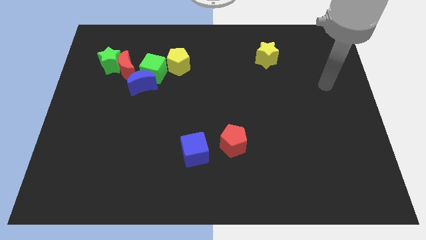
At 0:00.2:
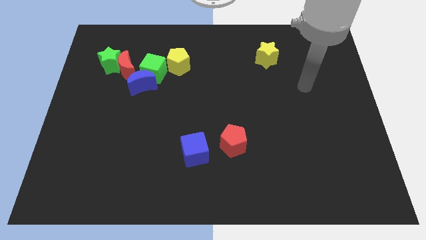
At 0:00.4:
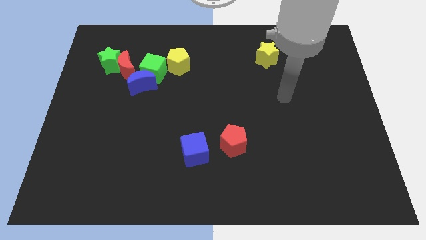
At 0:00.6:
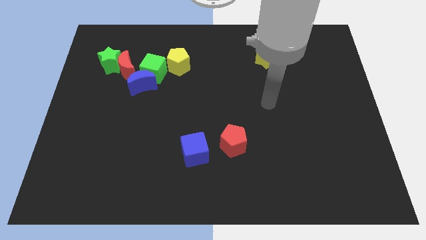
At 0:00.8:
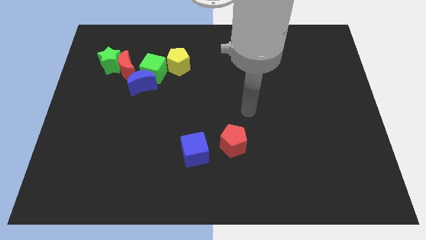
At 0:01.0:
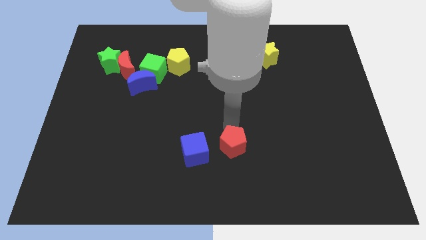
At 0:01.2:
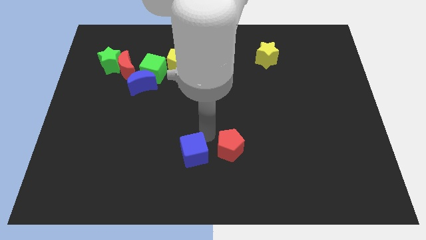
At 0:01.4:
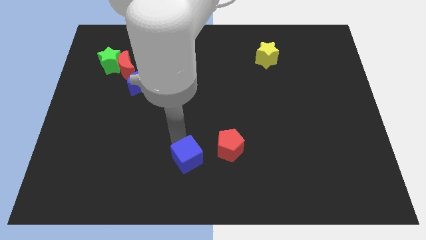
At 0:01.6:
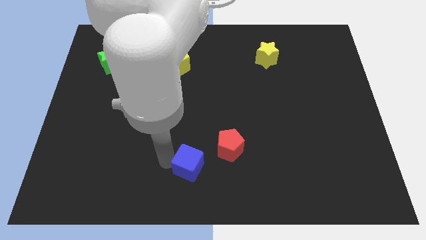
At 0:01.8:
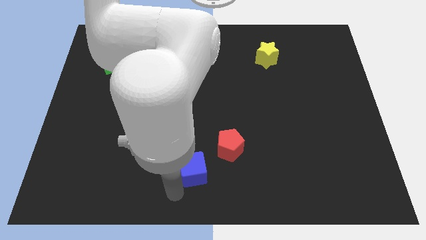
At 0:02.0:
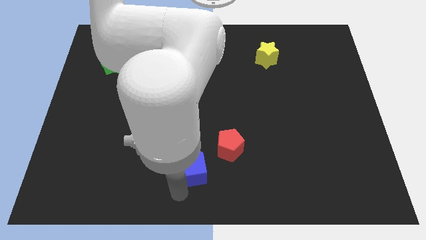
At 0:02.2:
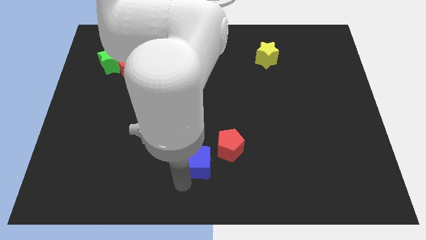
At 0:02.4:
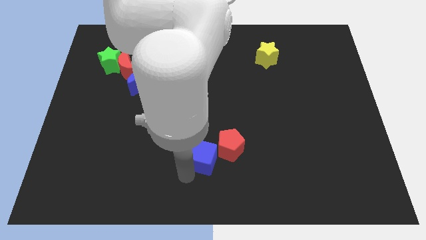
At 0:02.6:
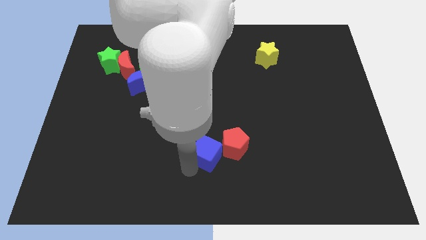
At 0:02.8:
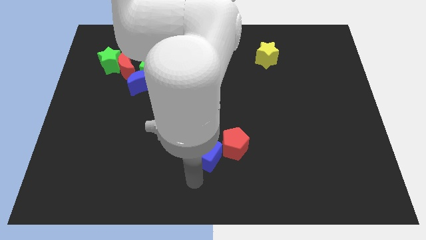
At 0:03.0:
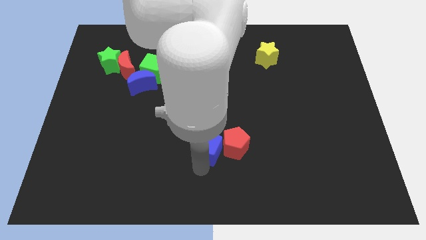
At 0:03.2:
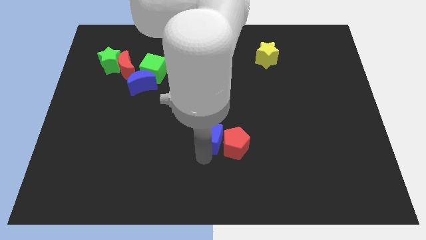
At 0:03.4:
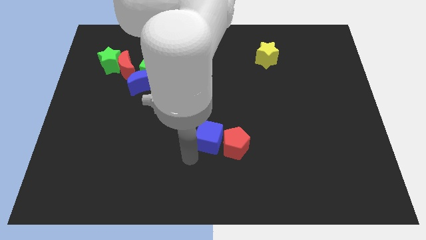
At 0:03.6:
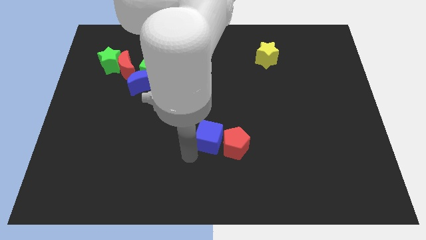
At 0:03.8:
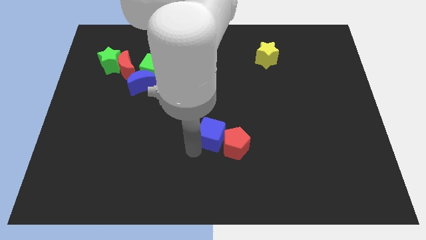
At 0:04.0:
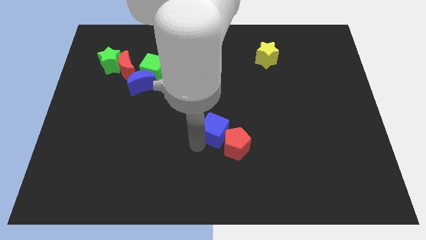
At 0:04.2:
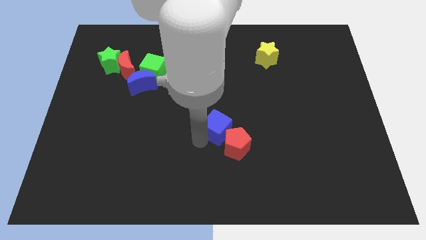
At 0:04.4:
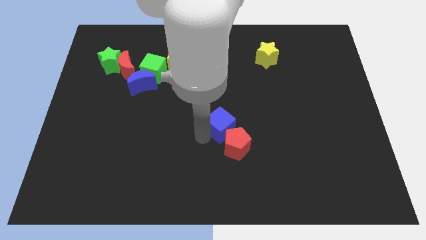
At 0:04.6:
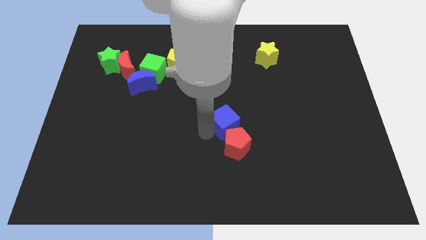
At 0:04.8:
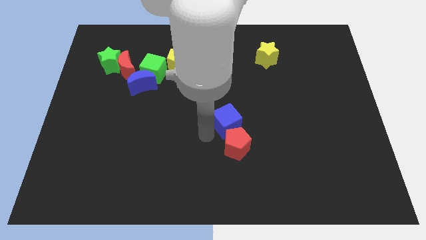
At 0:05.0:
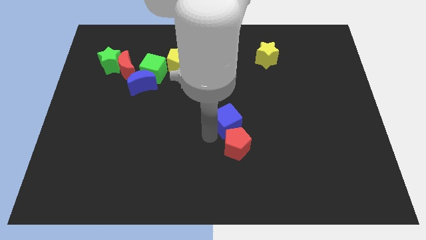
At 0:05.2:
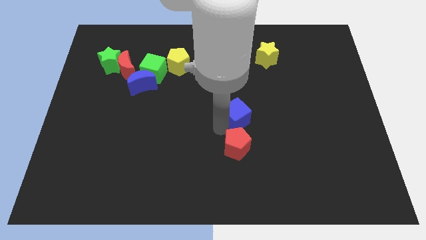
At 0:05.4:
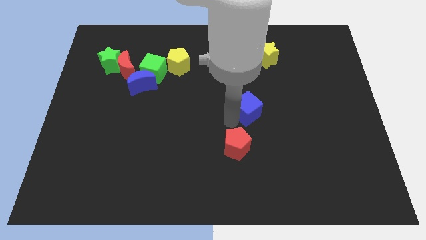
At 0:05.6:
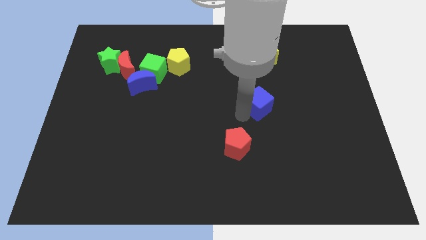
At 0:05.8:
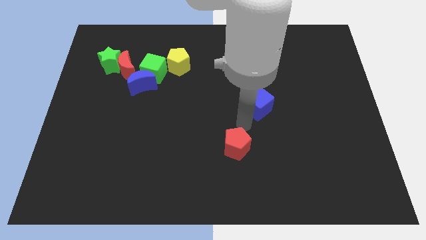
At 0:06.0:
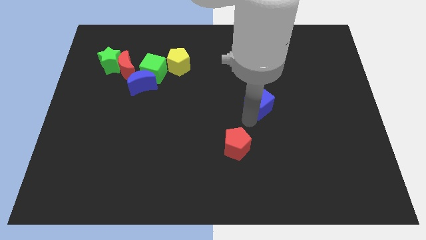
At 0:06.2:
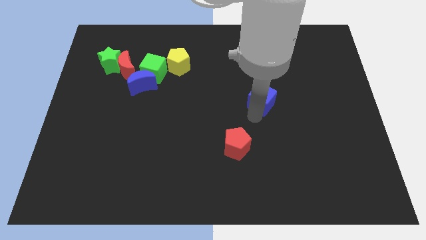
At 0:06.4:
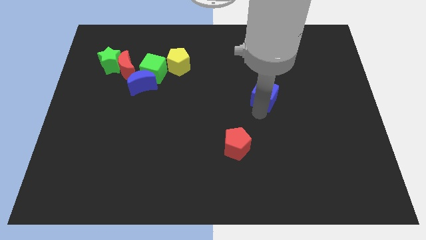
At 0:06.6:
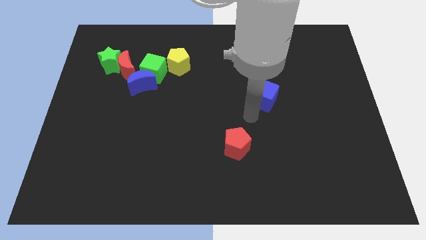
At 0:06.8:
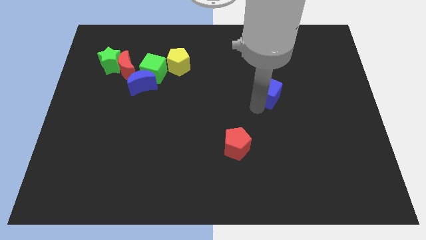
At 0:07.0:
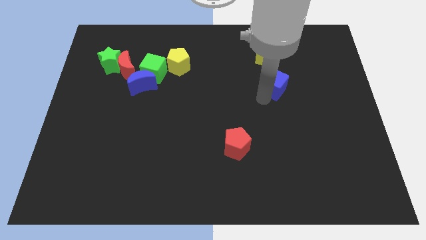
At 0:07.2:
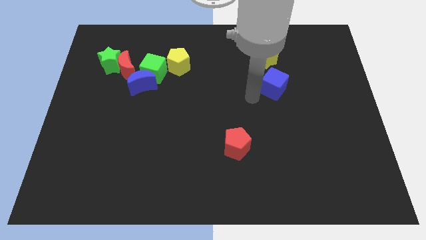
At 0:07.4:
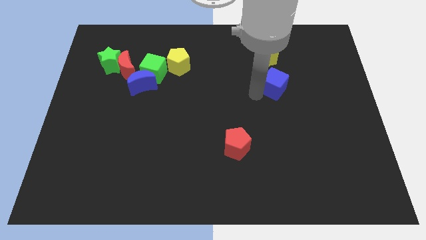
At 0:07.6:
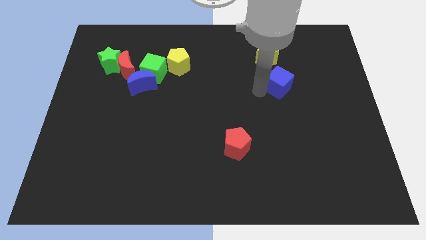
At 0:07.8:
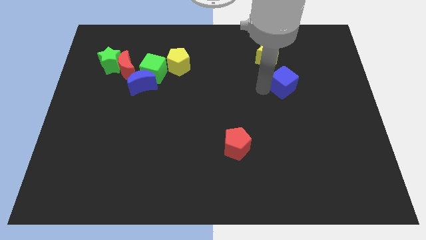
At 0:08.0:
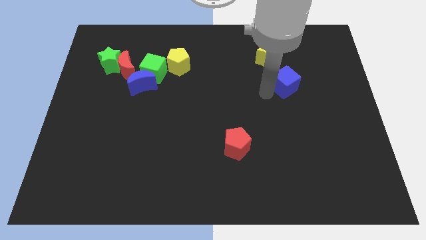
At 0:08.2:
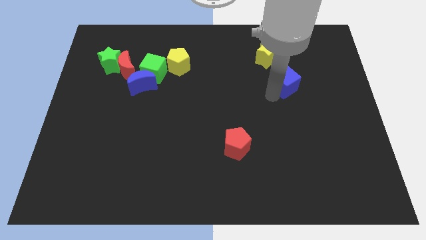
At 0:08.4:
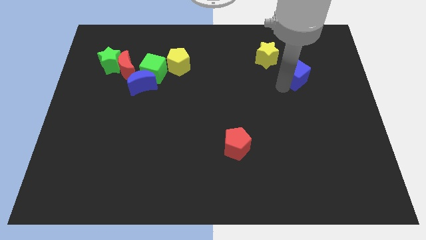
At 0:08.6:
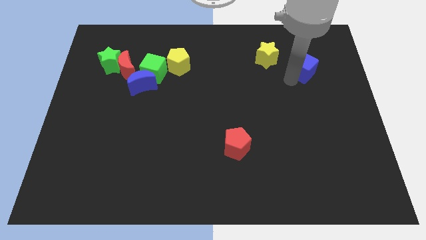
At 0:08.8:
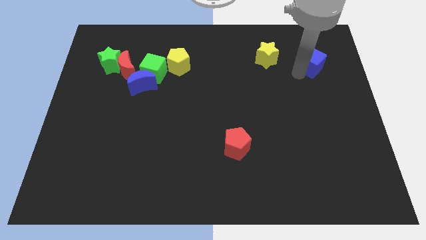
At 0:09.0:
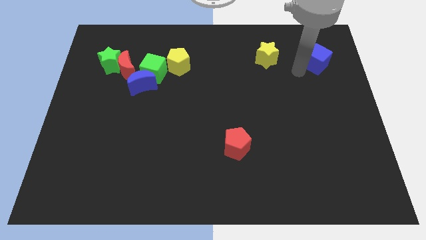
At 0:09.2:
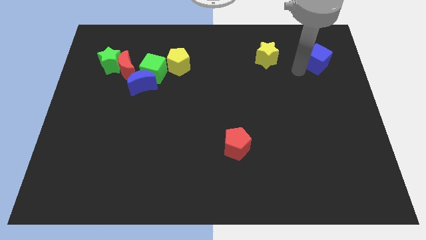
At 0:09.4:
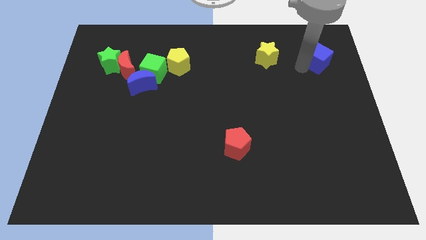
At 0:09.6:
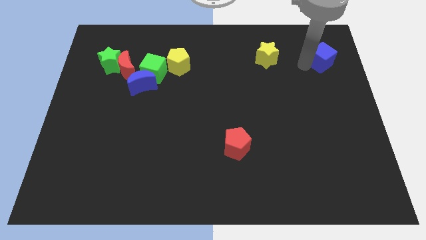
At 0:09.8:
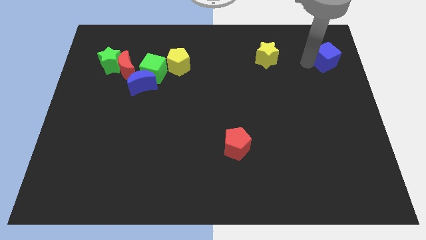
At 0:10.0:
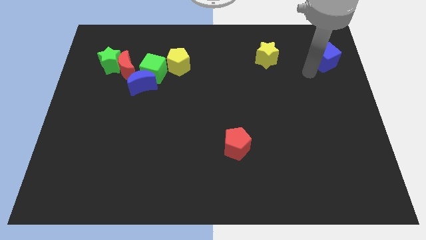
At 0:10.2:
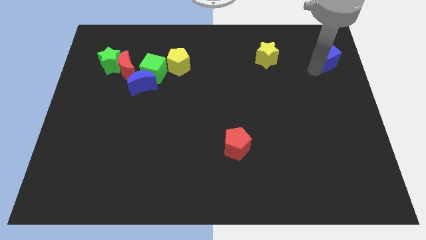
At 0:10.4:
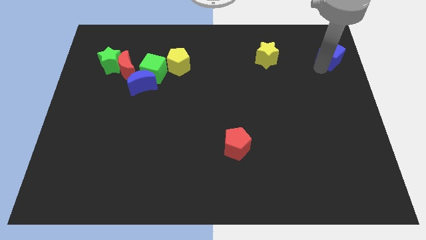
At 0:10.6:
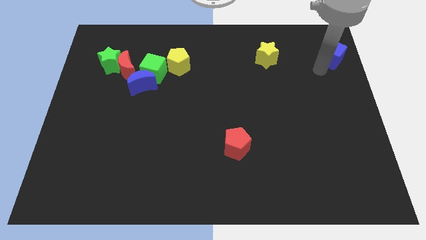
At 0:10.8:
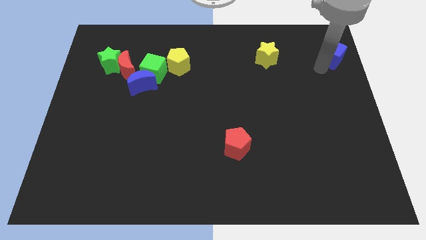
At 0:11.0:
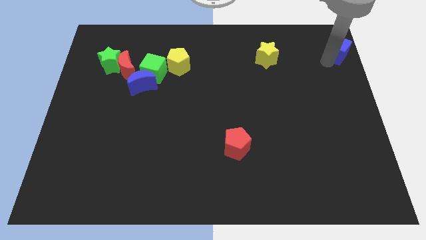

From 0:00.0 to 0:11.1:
push the blue cube to the upper right corner

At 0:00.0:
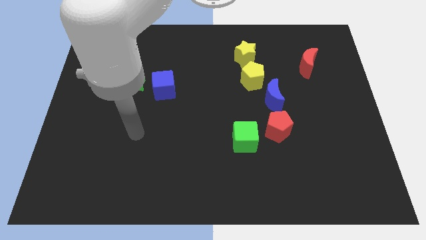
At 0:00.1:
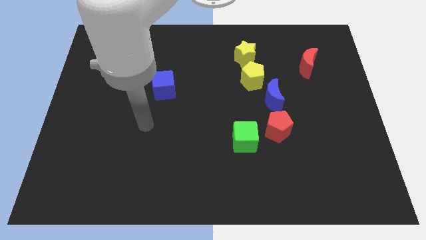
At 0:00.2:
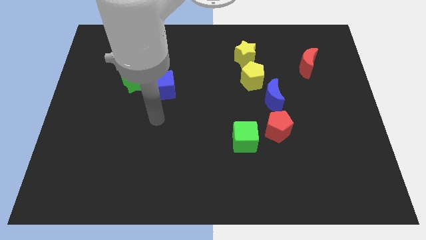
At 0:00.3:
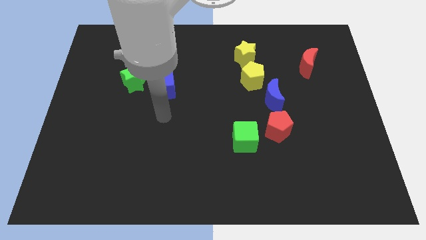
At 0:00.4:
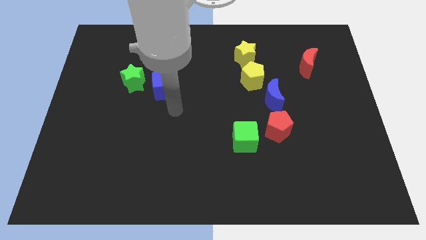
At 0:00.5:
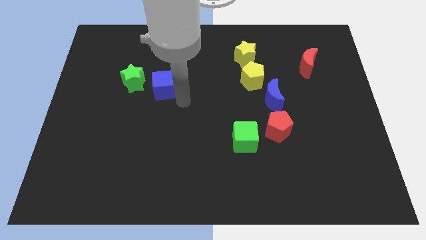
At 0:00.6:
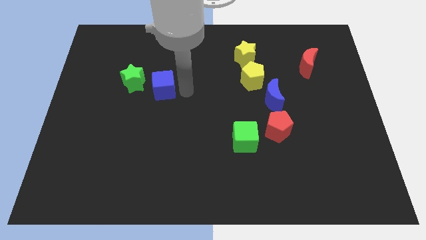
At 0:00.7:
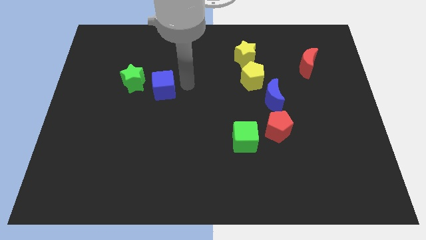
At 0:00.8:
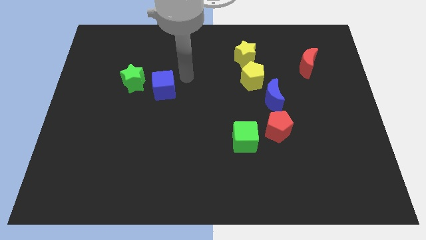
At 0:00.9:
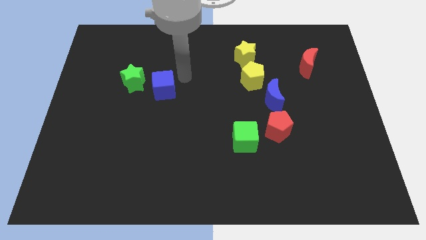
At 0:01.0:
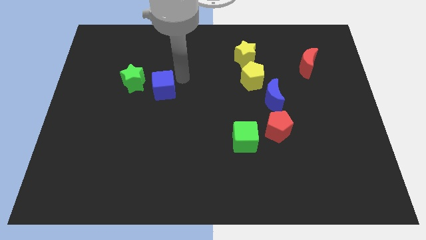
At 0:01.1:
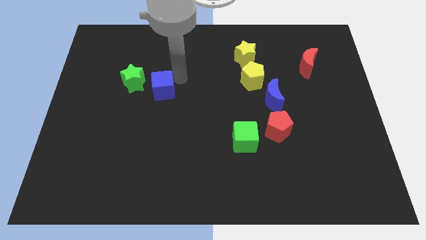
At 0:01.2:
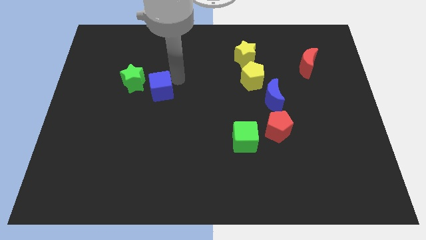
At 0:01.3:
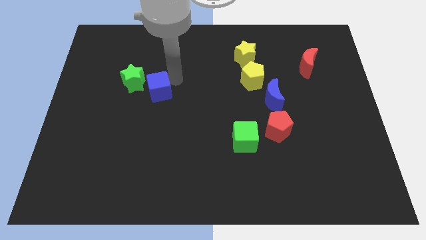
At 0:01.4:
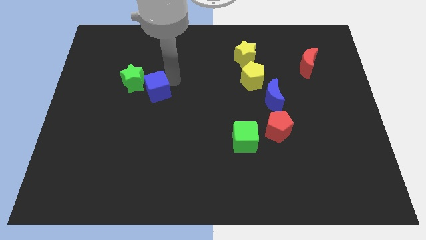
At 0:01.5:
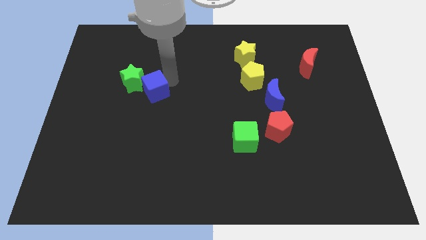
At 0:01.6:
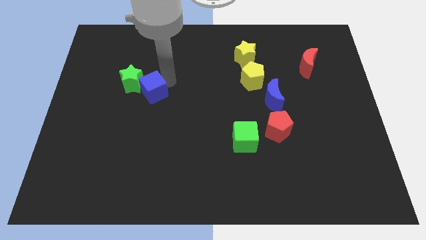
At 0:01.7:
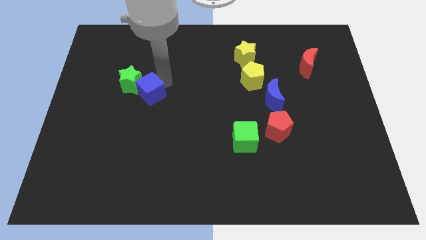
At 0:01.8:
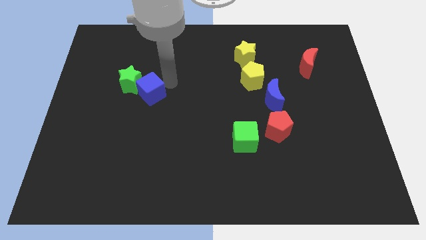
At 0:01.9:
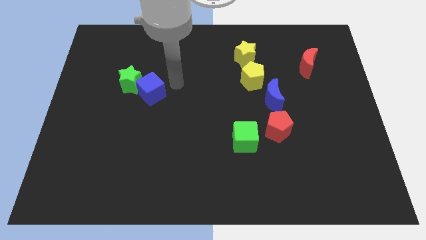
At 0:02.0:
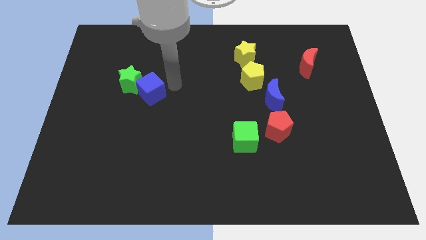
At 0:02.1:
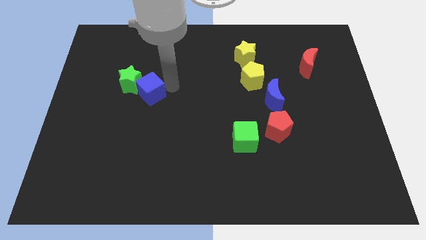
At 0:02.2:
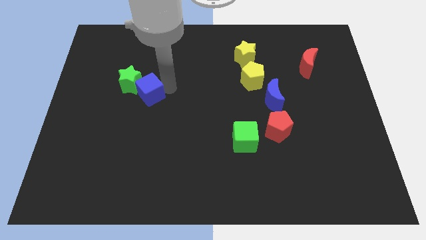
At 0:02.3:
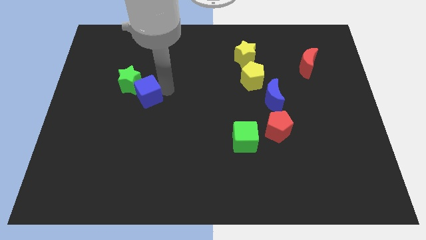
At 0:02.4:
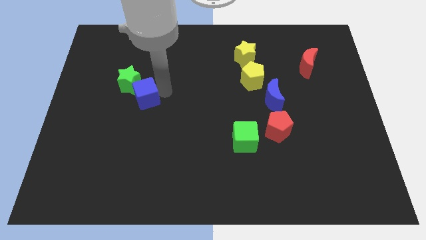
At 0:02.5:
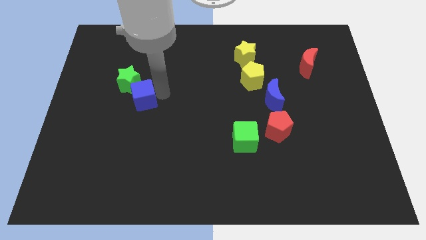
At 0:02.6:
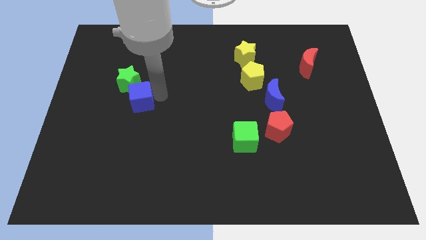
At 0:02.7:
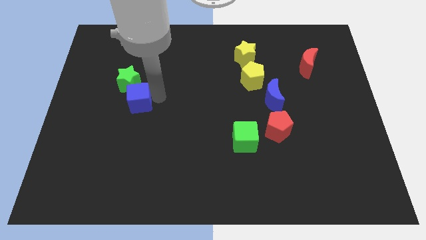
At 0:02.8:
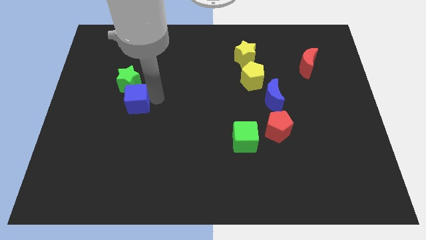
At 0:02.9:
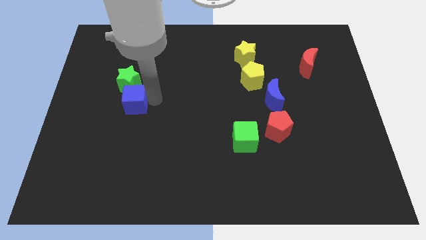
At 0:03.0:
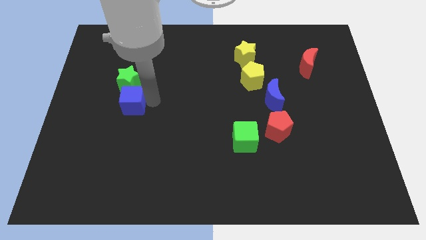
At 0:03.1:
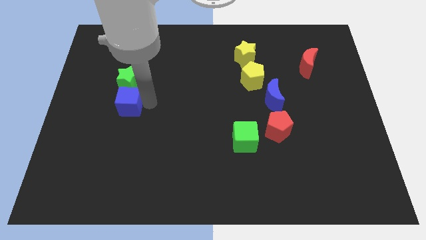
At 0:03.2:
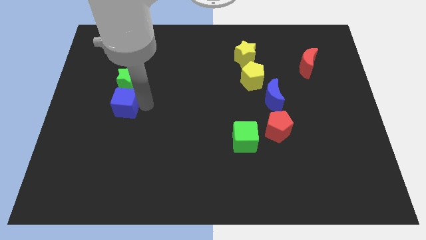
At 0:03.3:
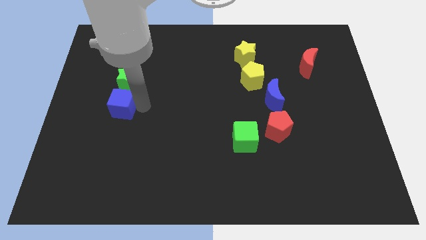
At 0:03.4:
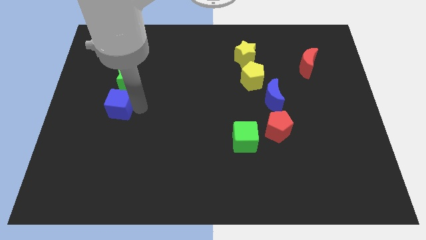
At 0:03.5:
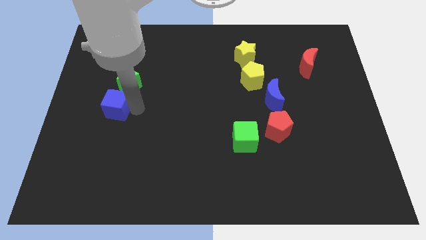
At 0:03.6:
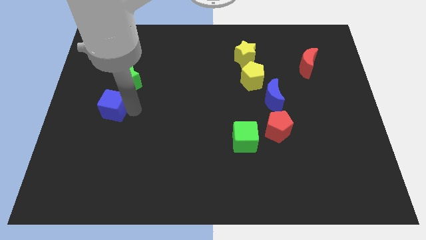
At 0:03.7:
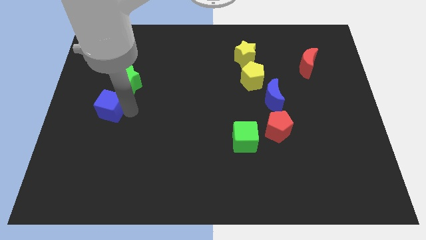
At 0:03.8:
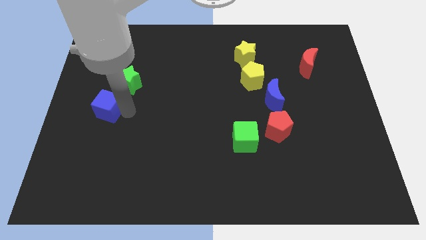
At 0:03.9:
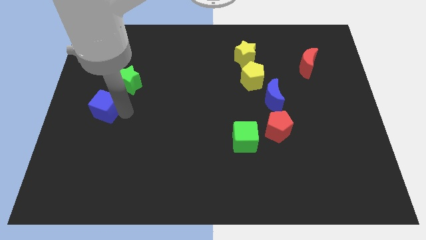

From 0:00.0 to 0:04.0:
slide the blue cube to the left side of the board
